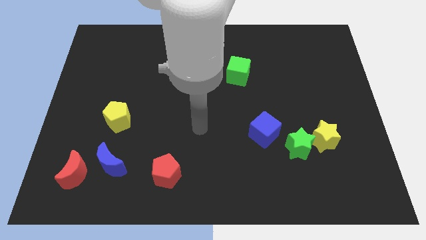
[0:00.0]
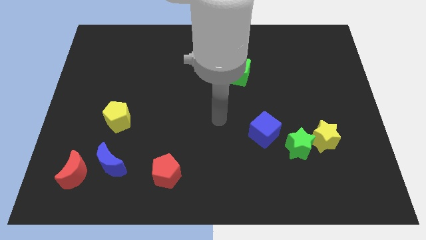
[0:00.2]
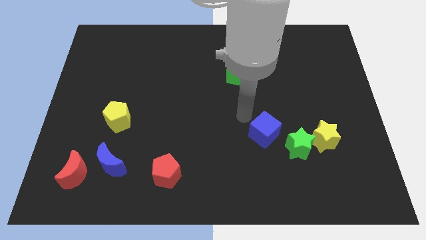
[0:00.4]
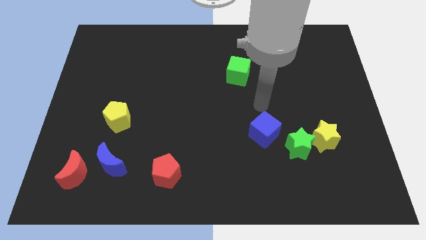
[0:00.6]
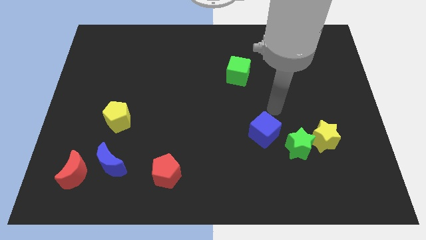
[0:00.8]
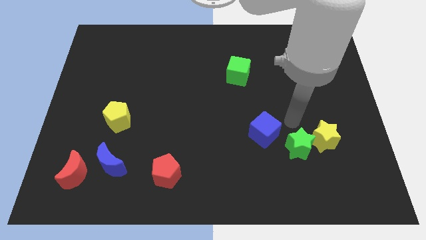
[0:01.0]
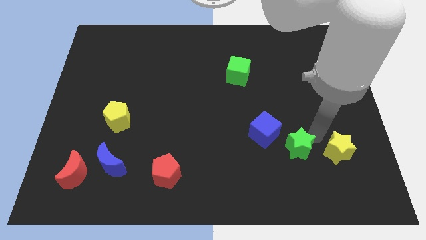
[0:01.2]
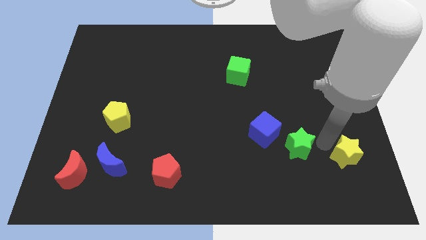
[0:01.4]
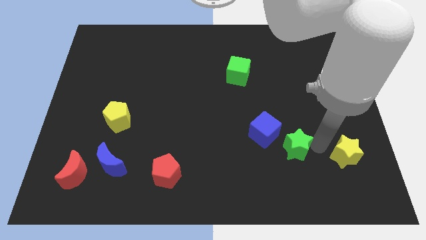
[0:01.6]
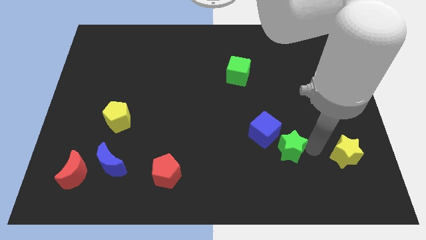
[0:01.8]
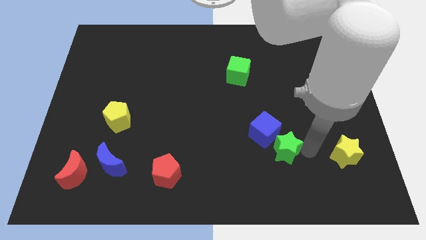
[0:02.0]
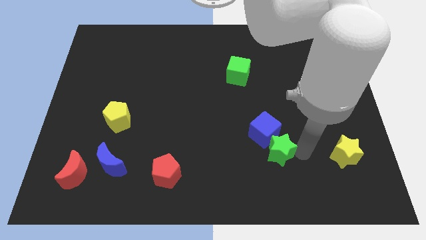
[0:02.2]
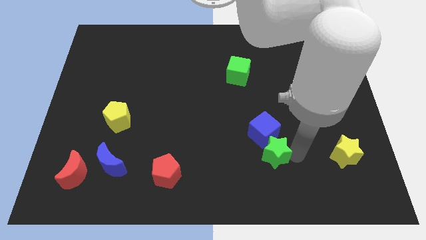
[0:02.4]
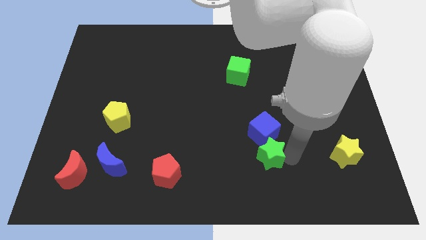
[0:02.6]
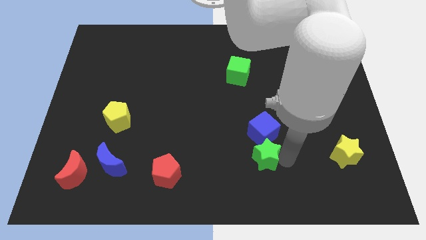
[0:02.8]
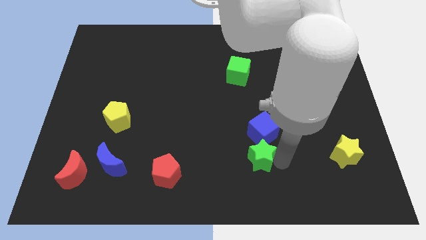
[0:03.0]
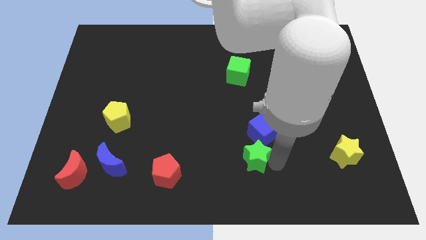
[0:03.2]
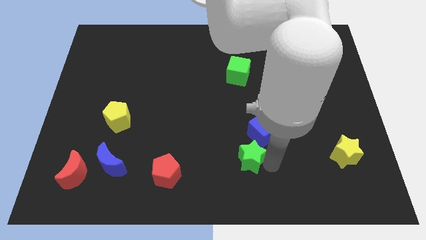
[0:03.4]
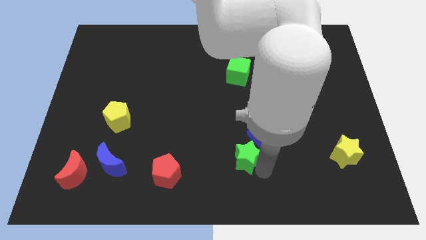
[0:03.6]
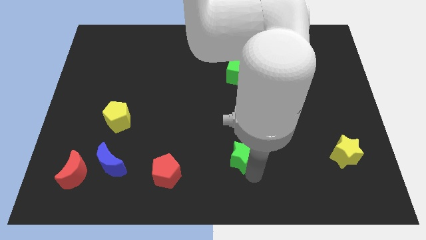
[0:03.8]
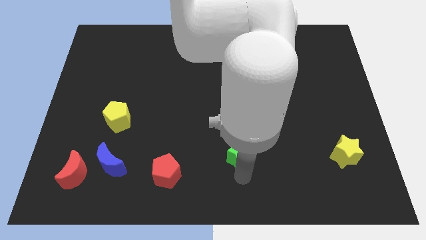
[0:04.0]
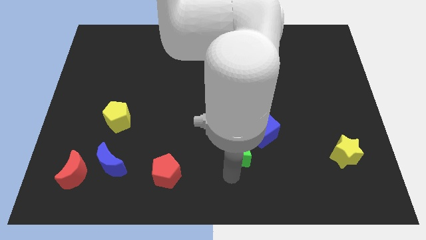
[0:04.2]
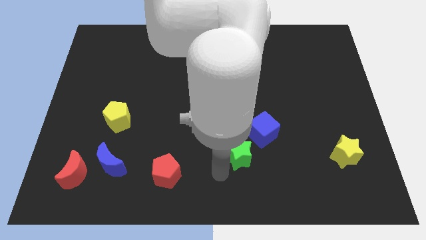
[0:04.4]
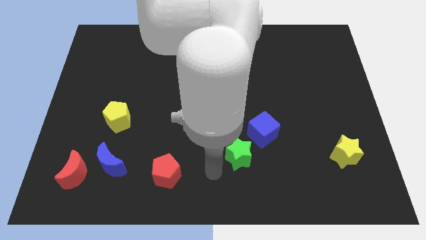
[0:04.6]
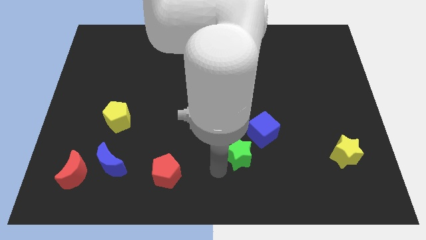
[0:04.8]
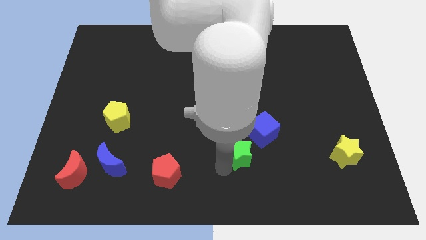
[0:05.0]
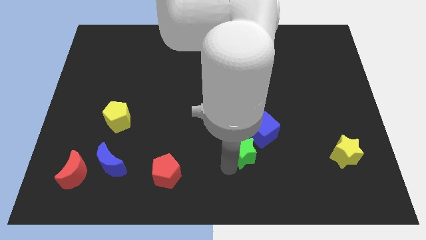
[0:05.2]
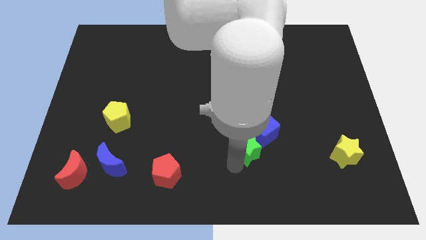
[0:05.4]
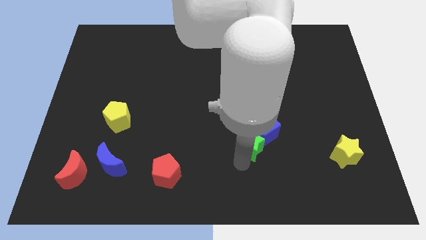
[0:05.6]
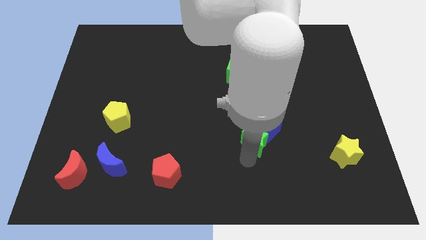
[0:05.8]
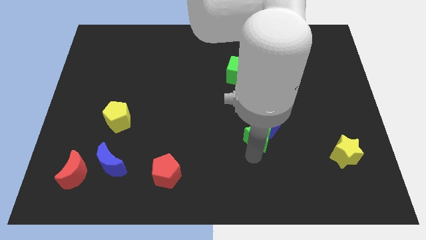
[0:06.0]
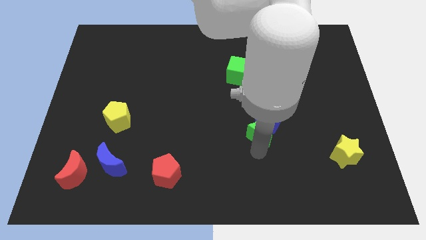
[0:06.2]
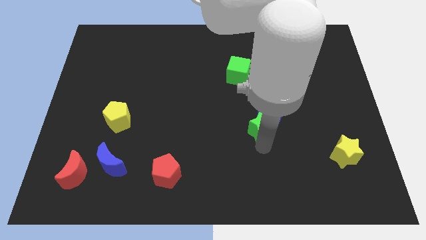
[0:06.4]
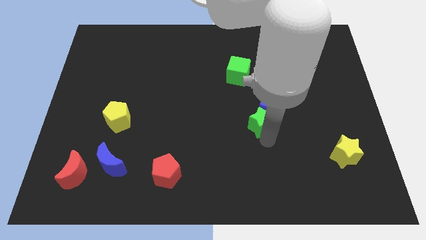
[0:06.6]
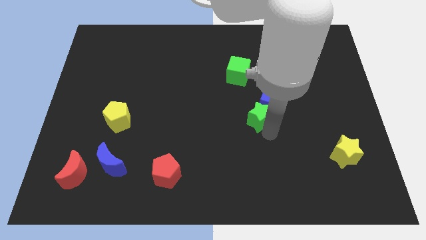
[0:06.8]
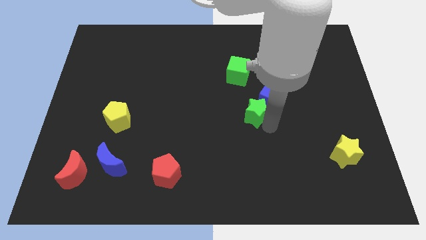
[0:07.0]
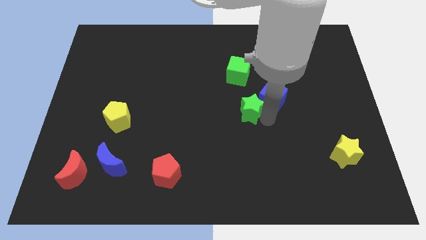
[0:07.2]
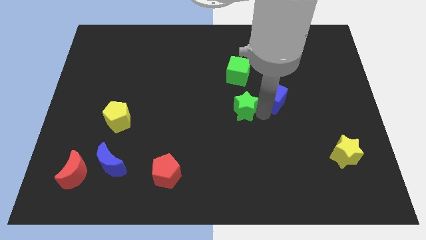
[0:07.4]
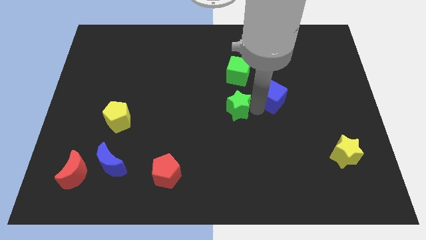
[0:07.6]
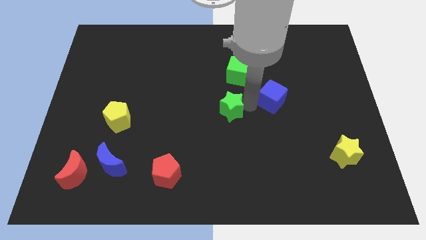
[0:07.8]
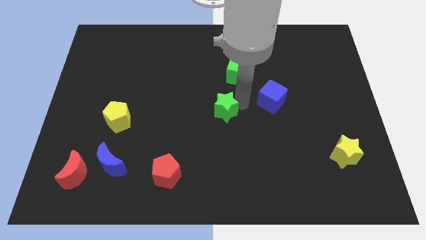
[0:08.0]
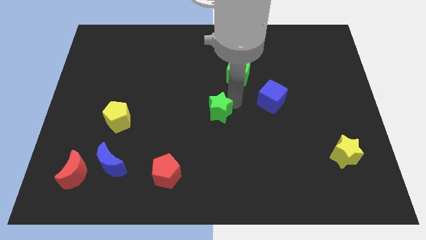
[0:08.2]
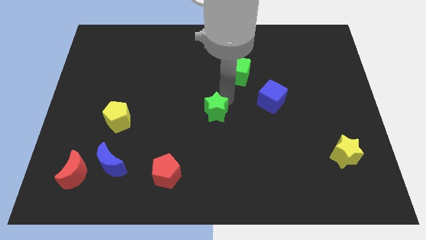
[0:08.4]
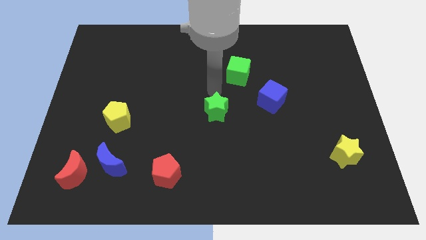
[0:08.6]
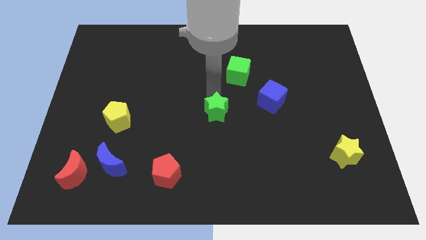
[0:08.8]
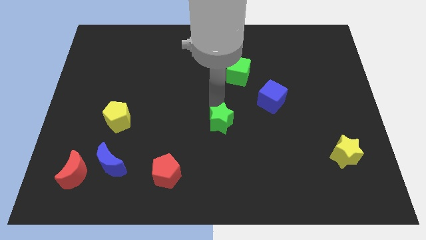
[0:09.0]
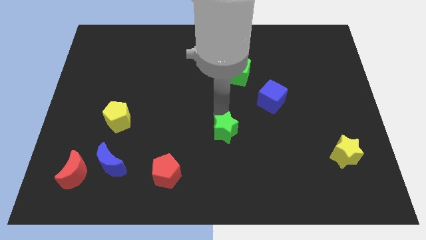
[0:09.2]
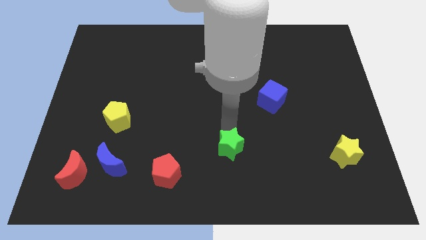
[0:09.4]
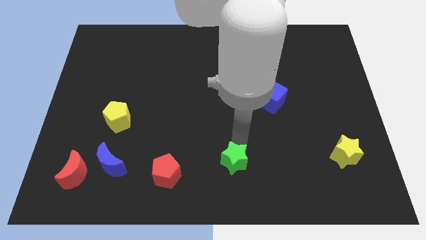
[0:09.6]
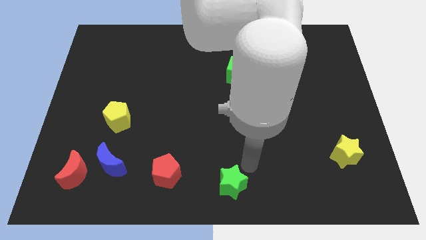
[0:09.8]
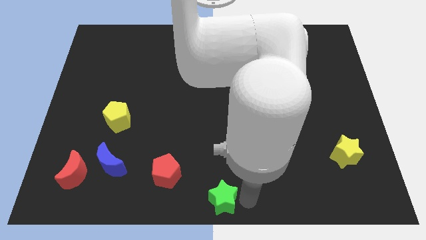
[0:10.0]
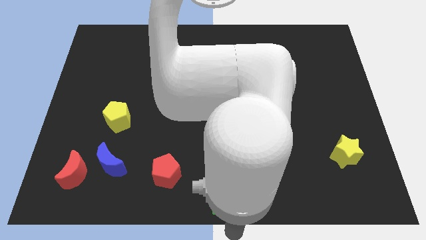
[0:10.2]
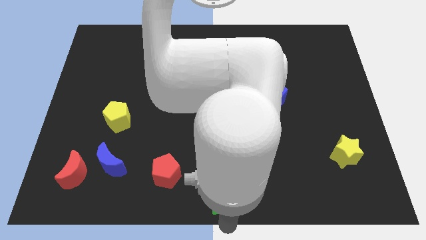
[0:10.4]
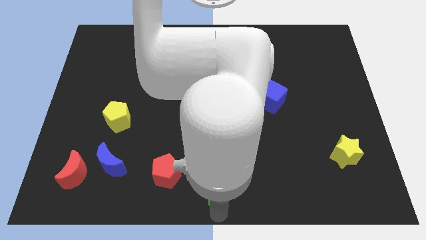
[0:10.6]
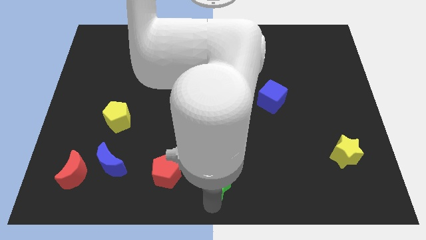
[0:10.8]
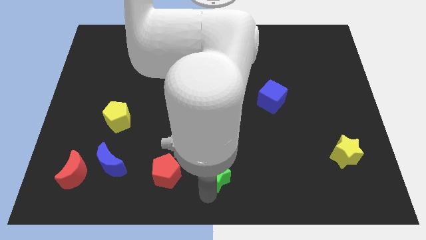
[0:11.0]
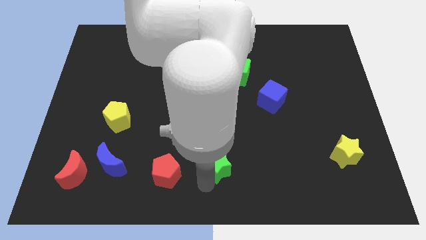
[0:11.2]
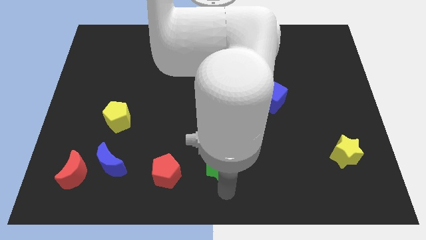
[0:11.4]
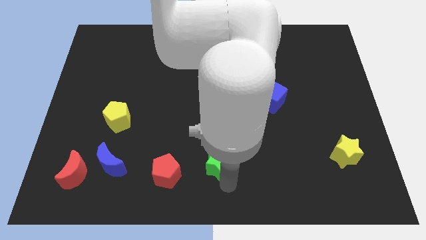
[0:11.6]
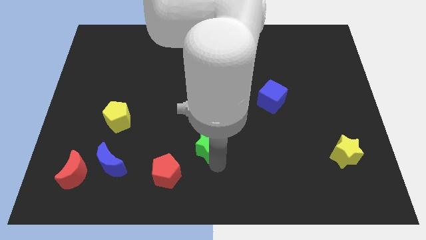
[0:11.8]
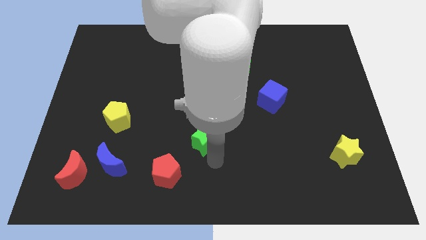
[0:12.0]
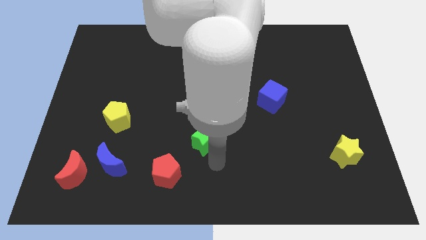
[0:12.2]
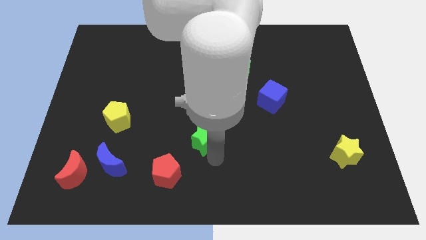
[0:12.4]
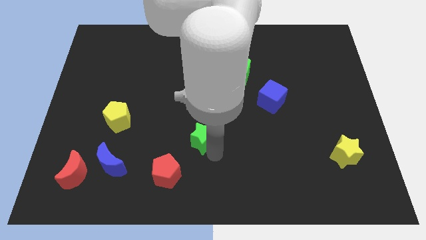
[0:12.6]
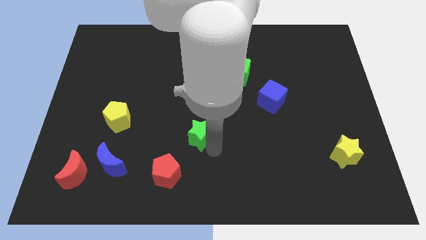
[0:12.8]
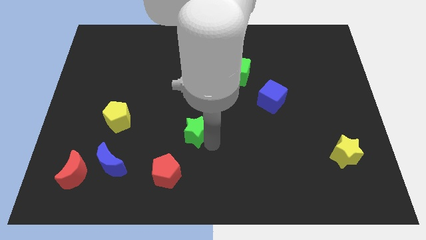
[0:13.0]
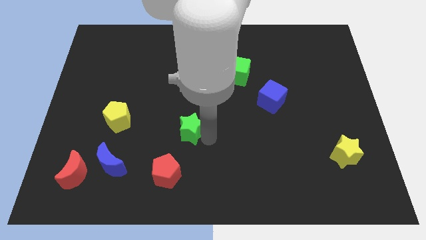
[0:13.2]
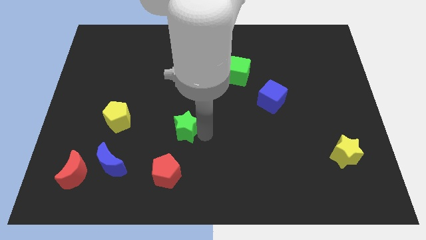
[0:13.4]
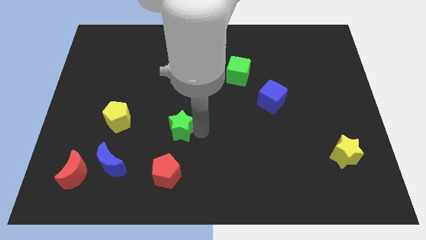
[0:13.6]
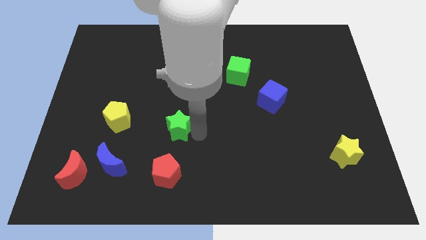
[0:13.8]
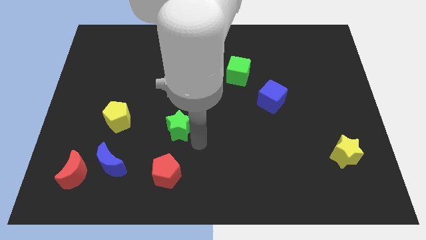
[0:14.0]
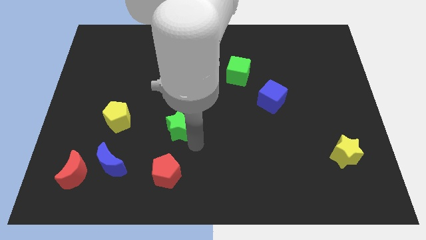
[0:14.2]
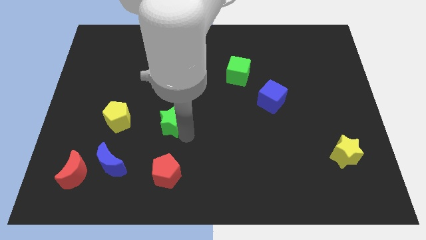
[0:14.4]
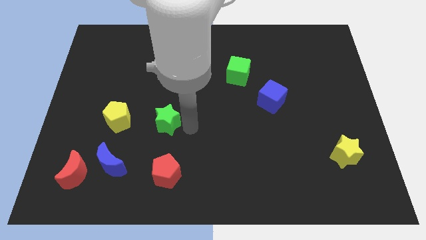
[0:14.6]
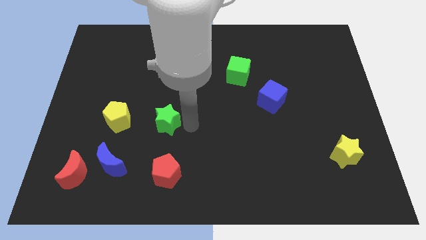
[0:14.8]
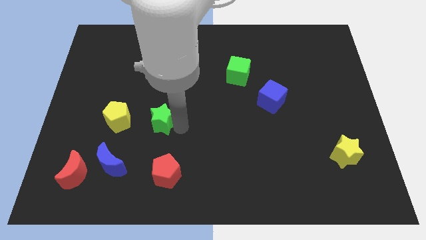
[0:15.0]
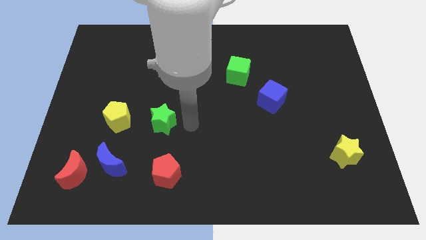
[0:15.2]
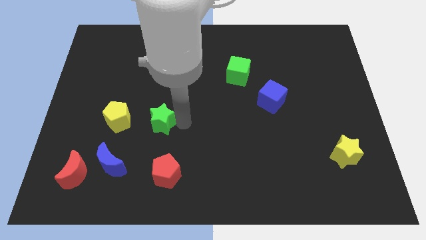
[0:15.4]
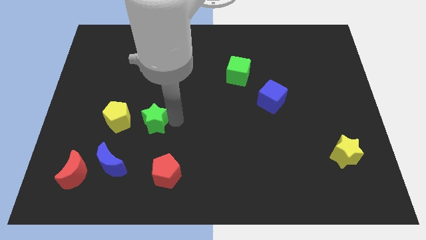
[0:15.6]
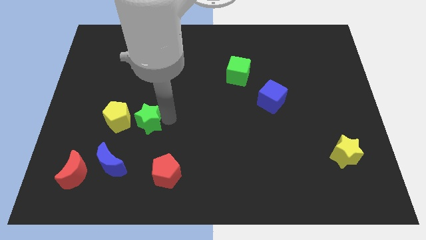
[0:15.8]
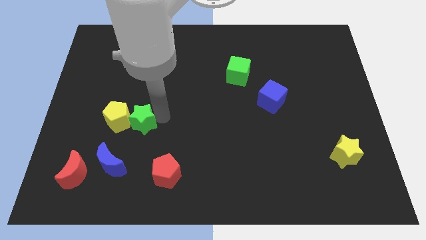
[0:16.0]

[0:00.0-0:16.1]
slide the green star to the yellow pentagon
